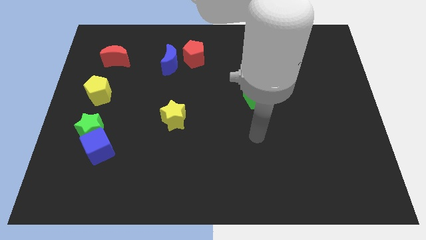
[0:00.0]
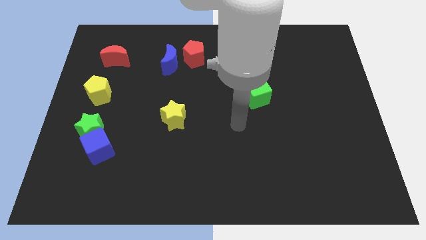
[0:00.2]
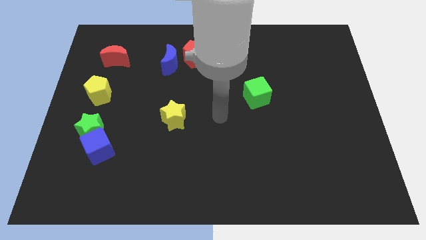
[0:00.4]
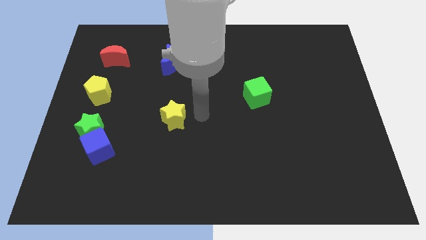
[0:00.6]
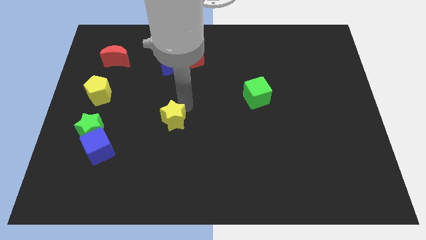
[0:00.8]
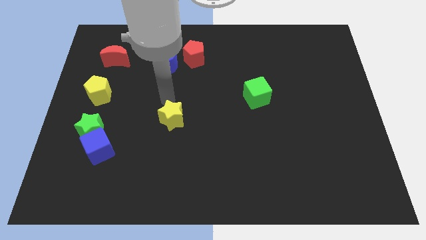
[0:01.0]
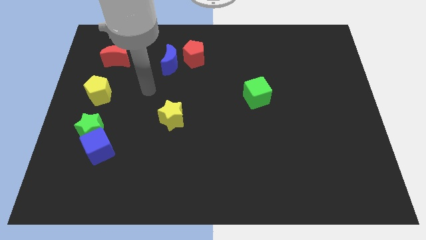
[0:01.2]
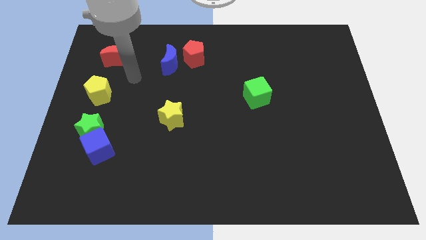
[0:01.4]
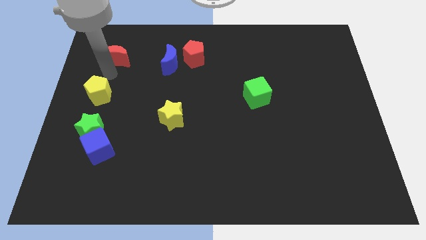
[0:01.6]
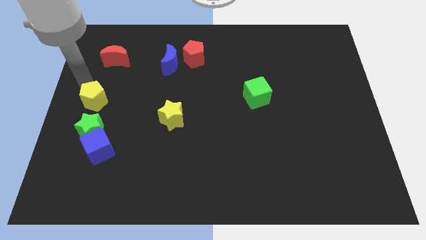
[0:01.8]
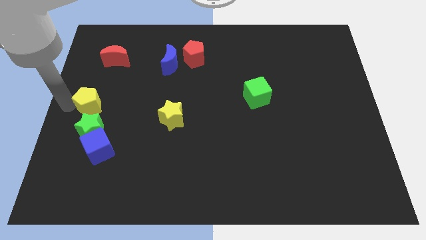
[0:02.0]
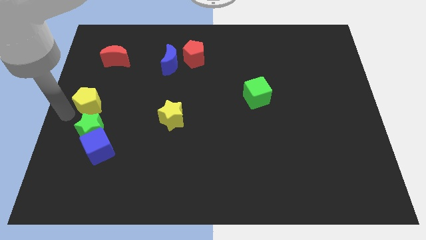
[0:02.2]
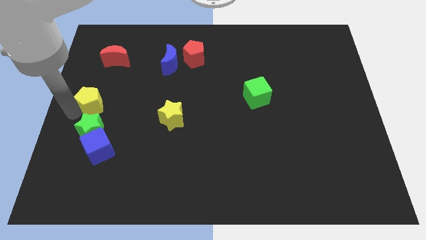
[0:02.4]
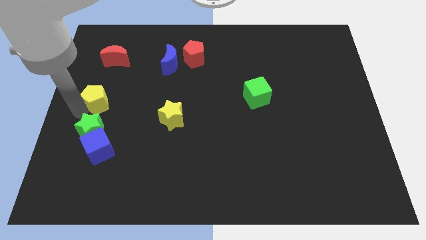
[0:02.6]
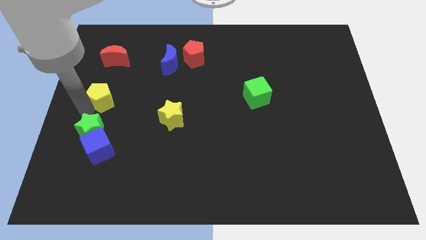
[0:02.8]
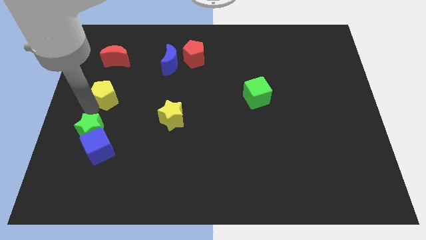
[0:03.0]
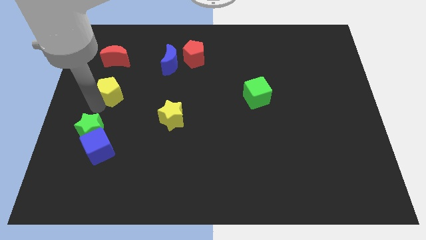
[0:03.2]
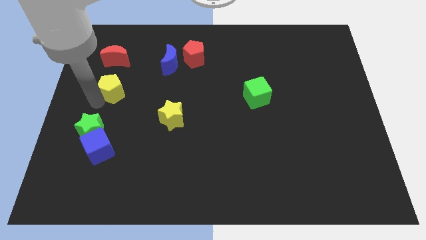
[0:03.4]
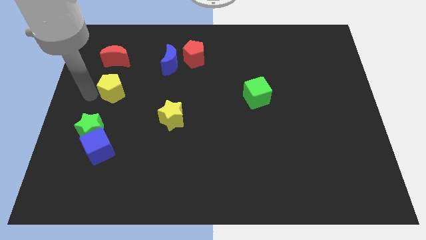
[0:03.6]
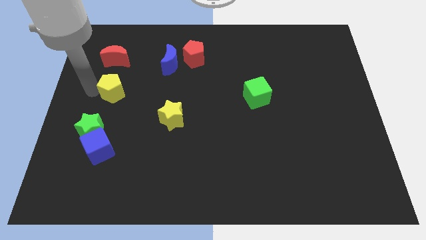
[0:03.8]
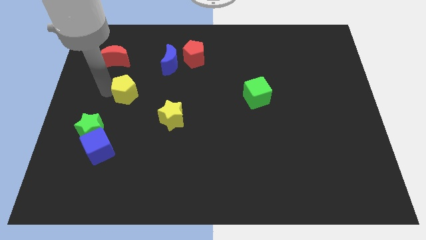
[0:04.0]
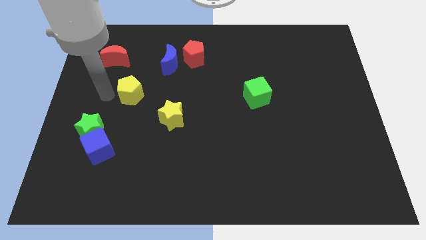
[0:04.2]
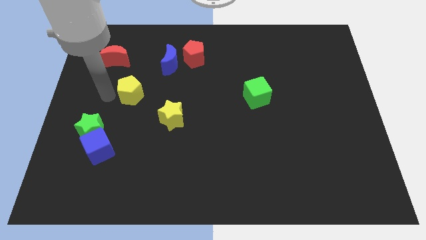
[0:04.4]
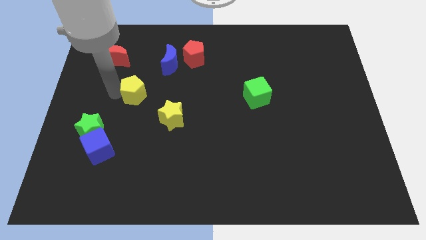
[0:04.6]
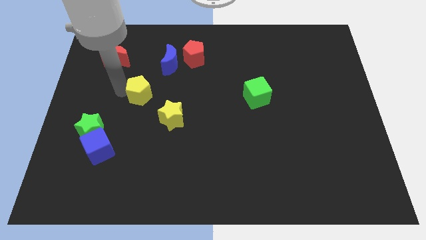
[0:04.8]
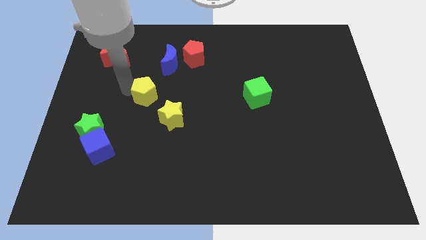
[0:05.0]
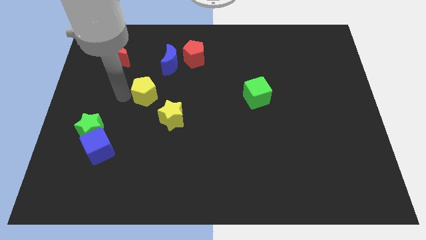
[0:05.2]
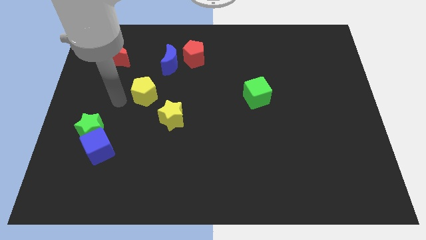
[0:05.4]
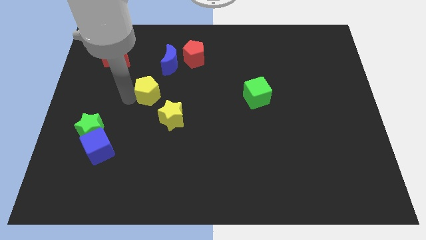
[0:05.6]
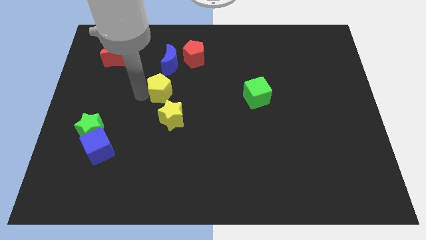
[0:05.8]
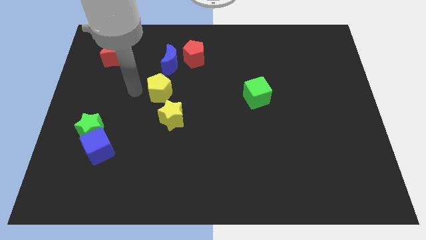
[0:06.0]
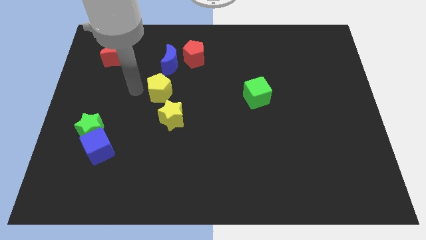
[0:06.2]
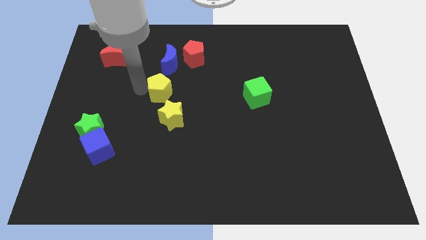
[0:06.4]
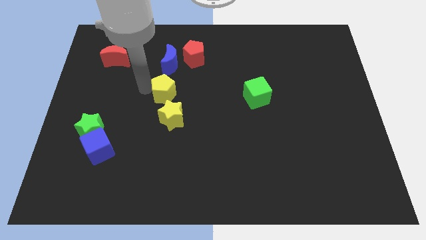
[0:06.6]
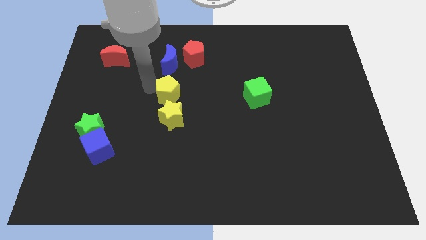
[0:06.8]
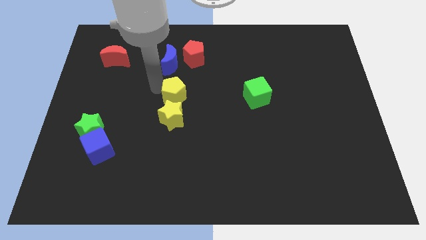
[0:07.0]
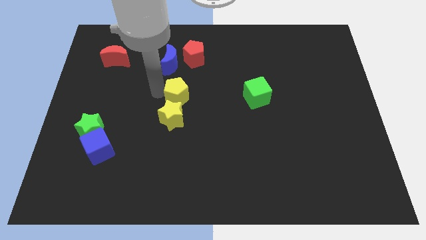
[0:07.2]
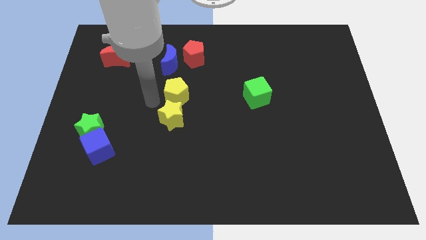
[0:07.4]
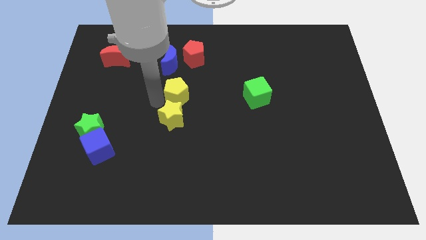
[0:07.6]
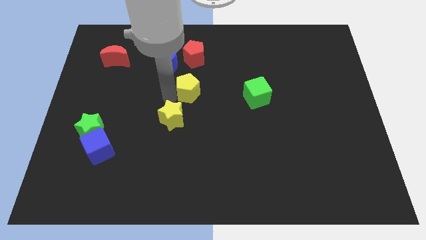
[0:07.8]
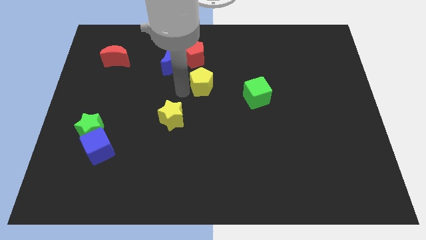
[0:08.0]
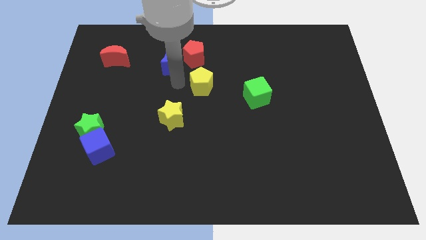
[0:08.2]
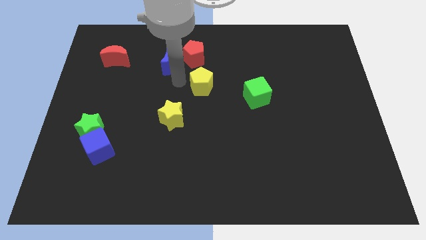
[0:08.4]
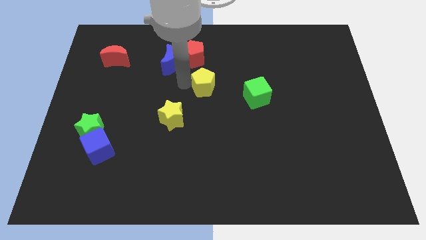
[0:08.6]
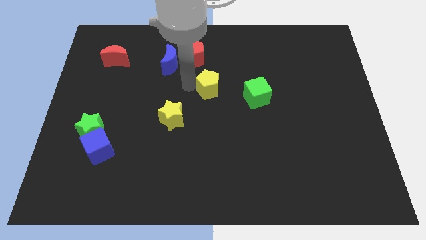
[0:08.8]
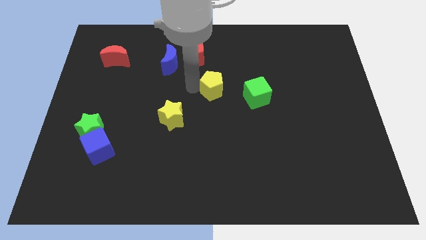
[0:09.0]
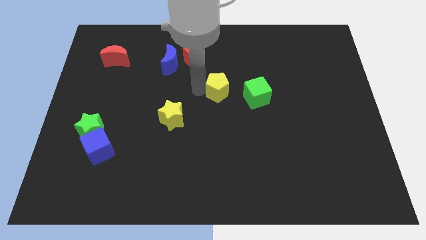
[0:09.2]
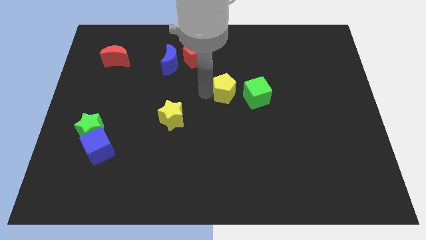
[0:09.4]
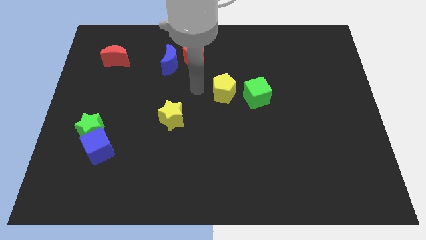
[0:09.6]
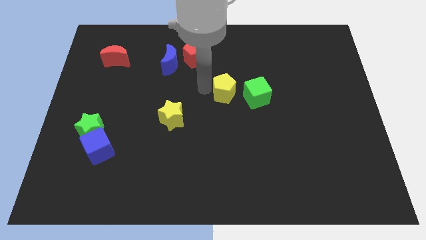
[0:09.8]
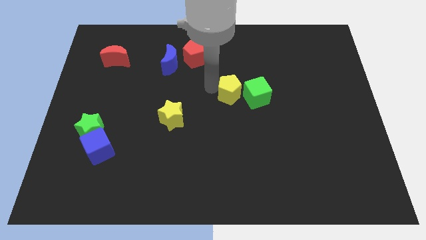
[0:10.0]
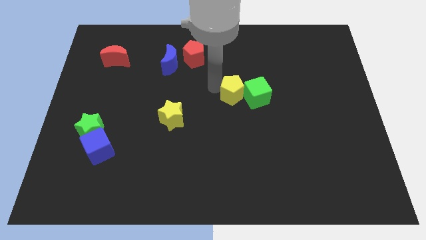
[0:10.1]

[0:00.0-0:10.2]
move the yellow pentagon next to the green cube

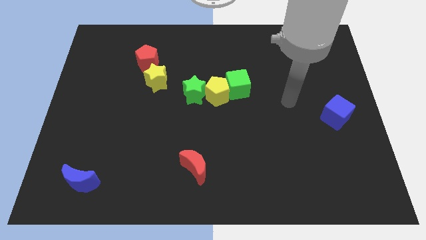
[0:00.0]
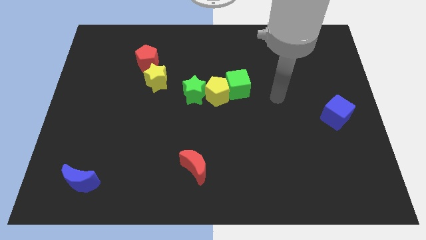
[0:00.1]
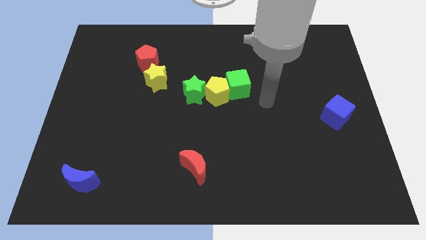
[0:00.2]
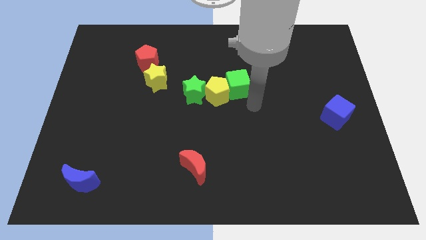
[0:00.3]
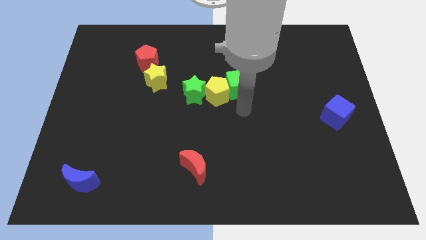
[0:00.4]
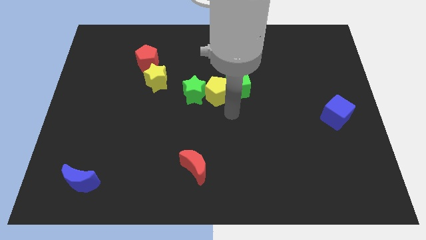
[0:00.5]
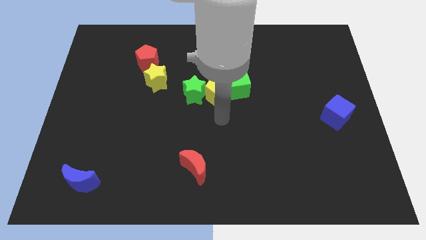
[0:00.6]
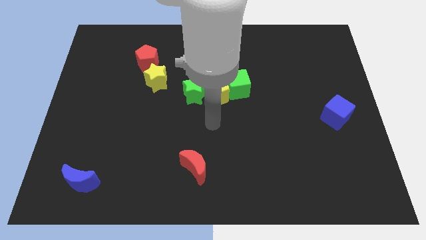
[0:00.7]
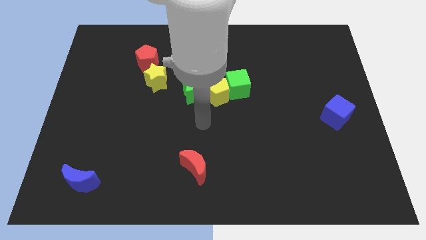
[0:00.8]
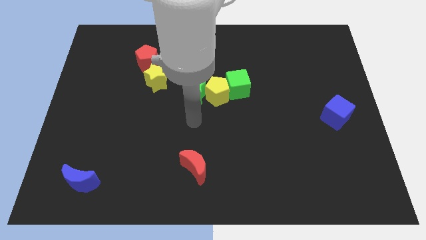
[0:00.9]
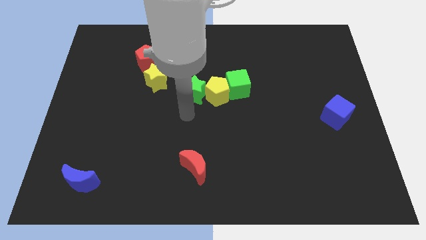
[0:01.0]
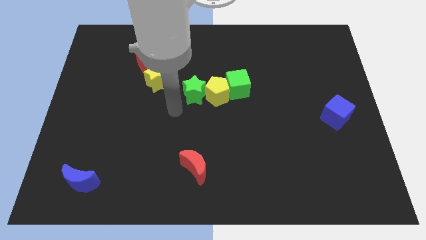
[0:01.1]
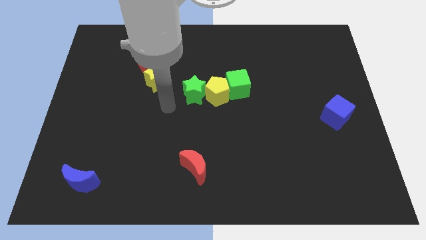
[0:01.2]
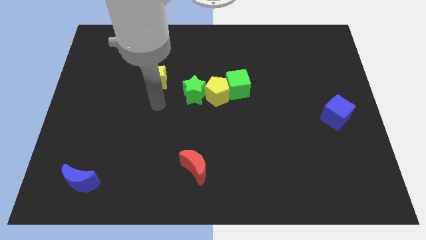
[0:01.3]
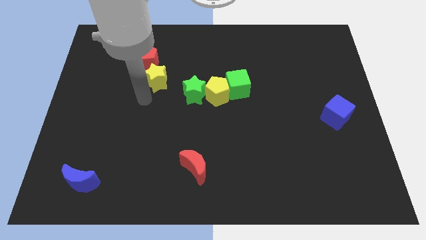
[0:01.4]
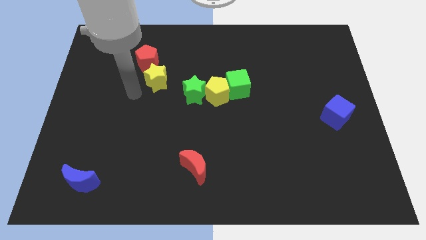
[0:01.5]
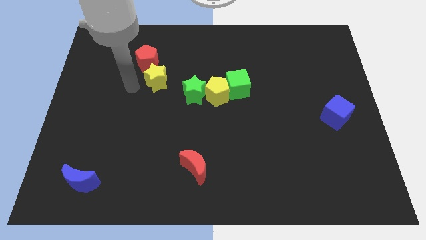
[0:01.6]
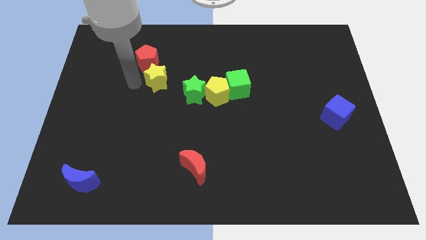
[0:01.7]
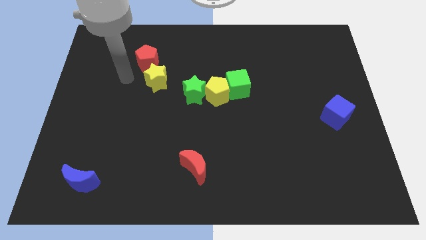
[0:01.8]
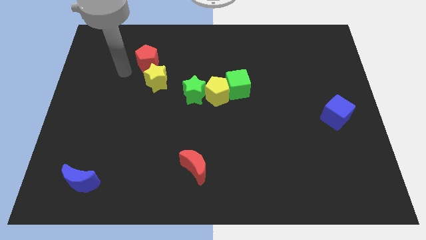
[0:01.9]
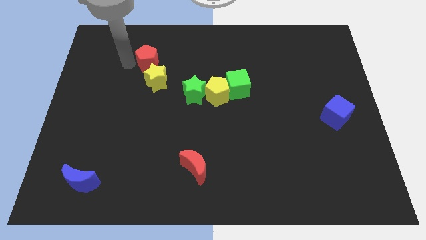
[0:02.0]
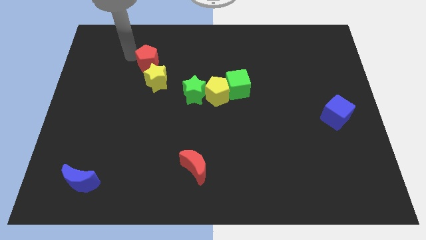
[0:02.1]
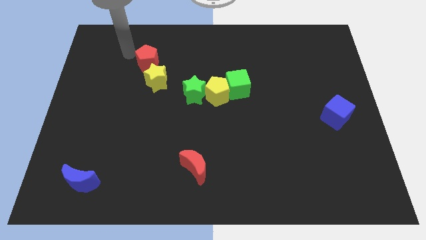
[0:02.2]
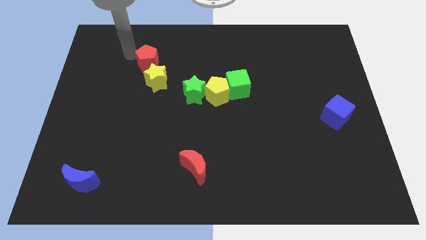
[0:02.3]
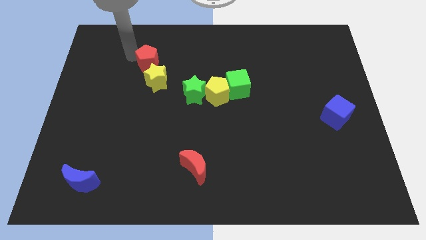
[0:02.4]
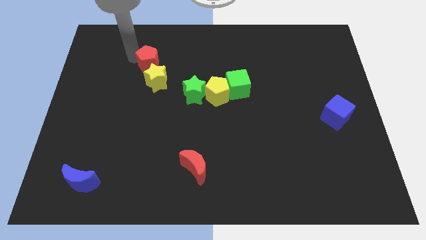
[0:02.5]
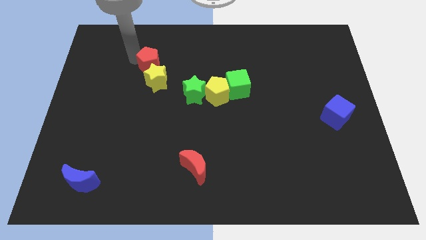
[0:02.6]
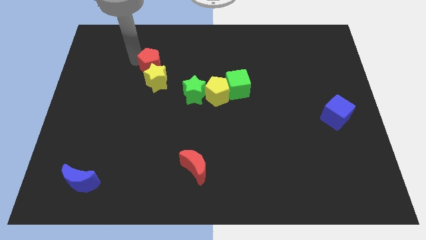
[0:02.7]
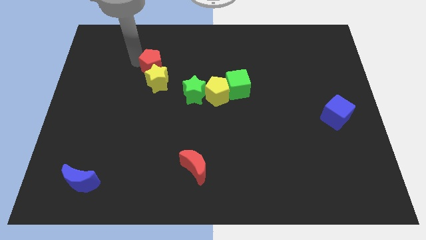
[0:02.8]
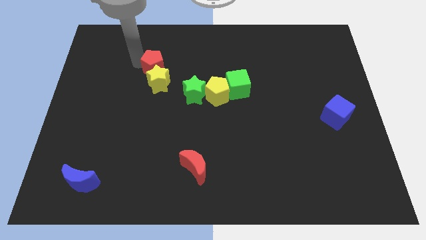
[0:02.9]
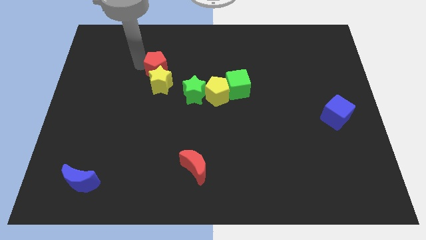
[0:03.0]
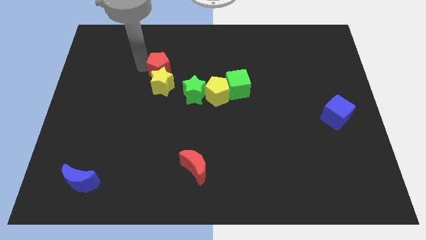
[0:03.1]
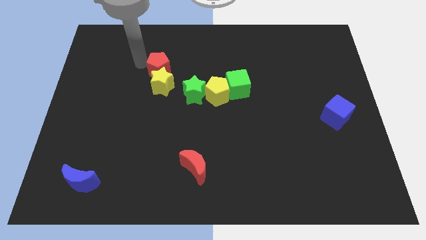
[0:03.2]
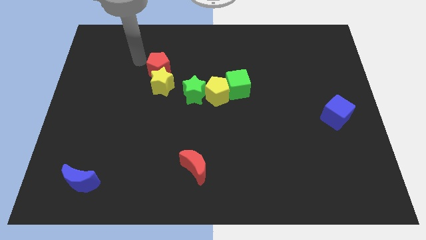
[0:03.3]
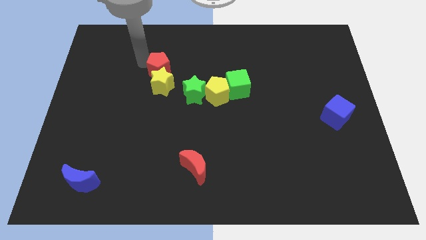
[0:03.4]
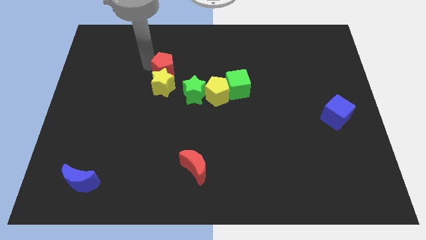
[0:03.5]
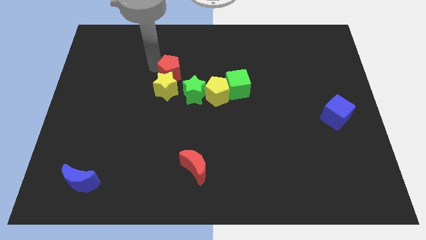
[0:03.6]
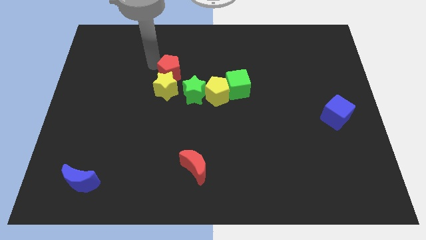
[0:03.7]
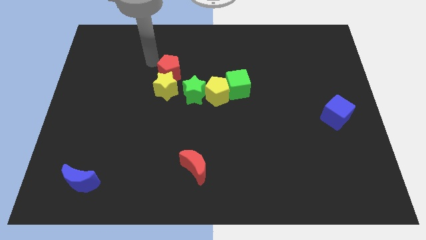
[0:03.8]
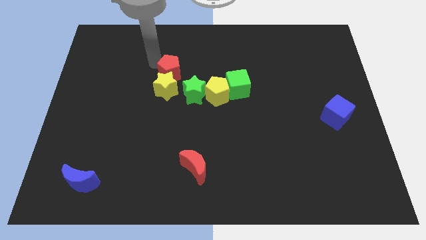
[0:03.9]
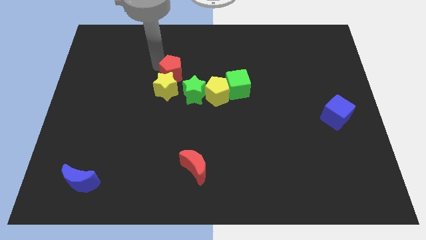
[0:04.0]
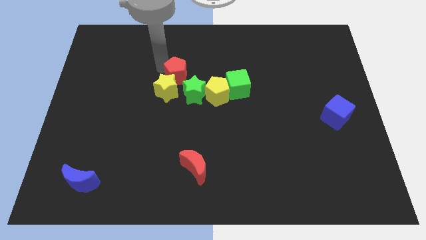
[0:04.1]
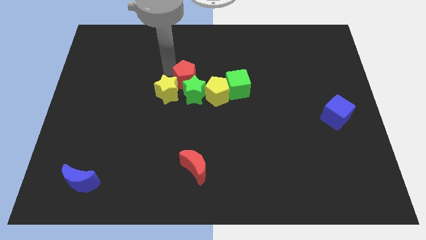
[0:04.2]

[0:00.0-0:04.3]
slide the red pentagon towards the green star
